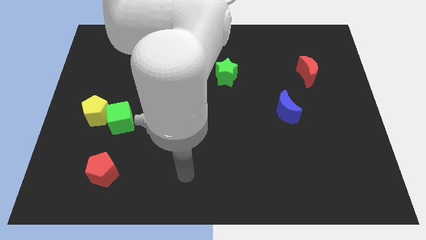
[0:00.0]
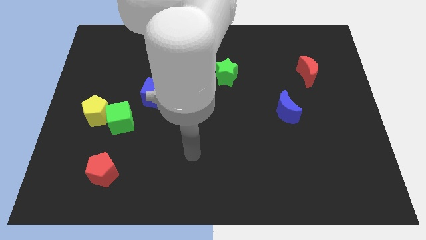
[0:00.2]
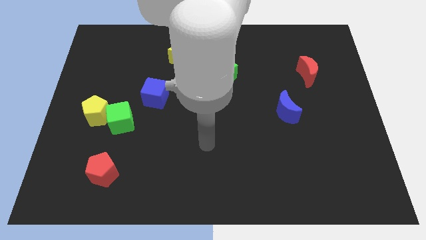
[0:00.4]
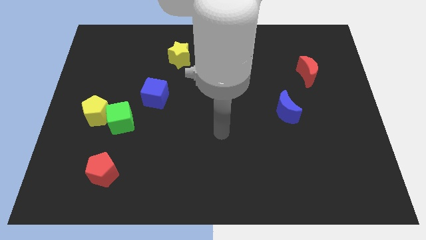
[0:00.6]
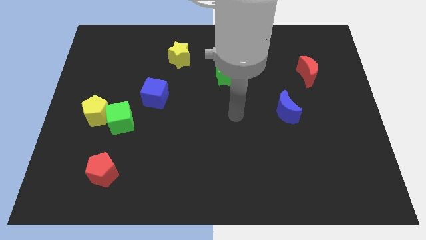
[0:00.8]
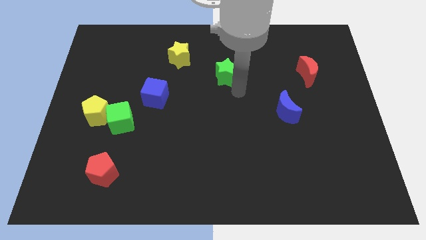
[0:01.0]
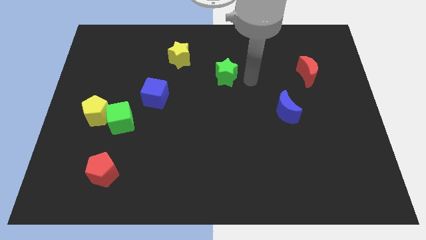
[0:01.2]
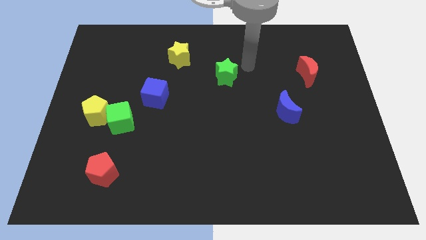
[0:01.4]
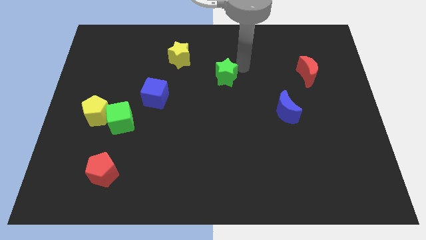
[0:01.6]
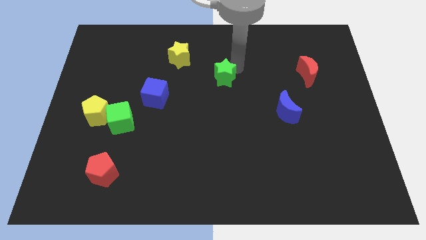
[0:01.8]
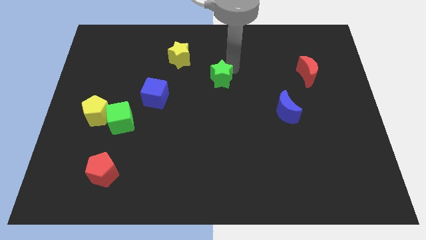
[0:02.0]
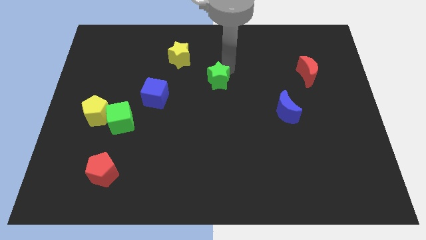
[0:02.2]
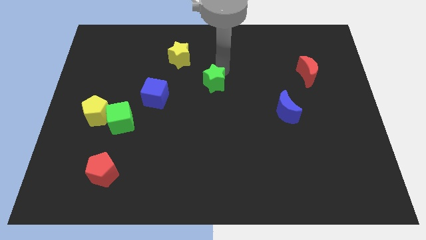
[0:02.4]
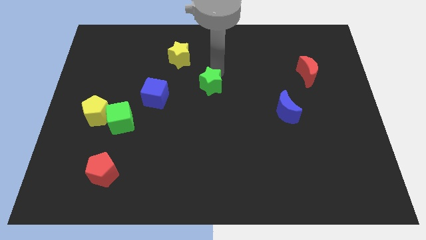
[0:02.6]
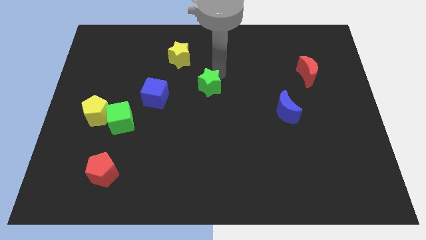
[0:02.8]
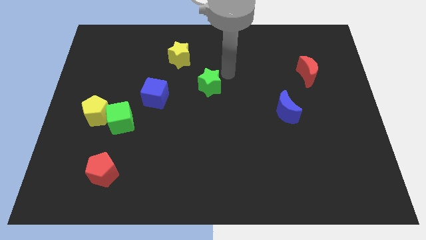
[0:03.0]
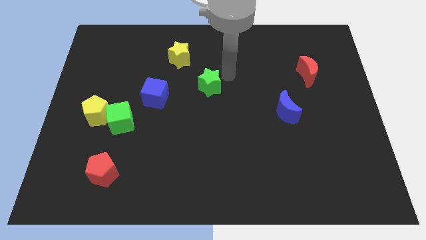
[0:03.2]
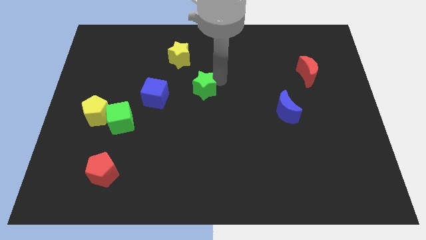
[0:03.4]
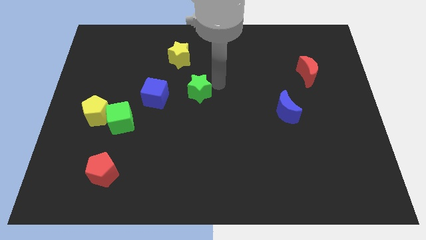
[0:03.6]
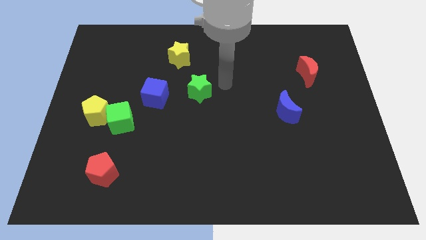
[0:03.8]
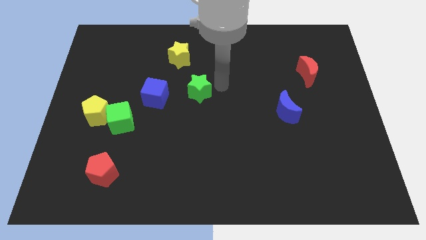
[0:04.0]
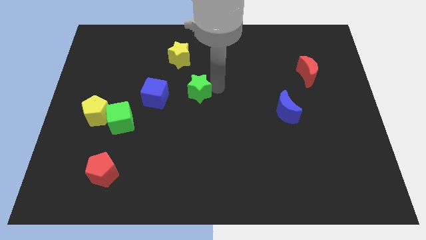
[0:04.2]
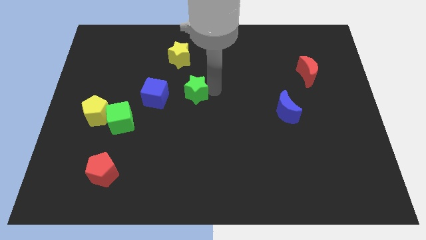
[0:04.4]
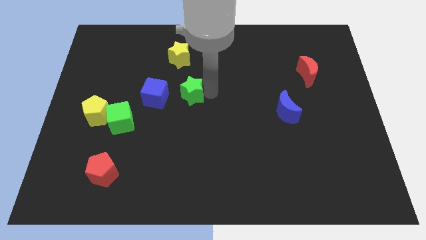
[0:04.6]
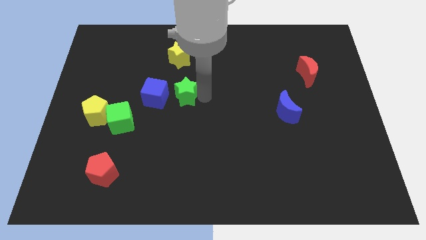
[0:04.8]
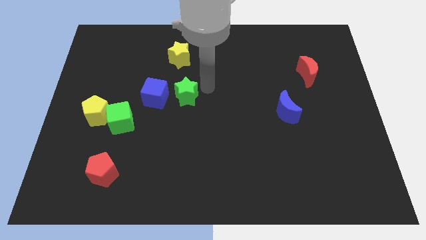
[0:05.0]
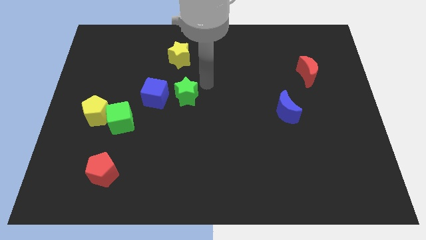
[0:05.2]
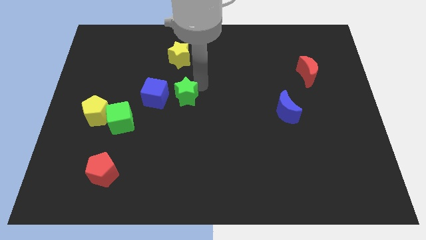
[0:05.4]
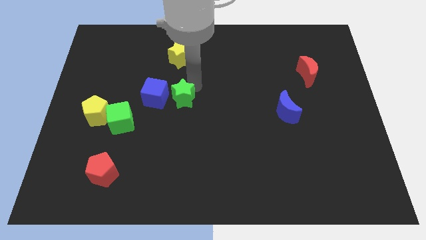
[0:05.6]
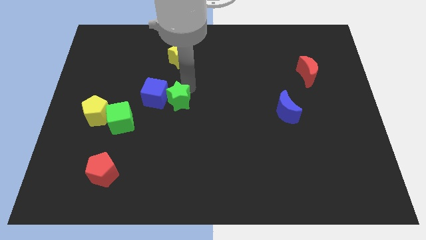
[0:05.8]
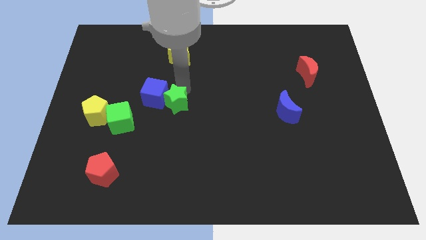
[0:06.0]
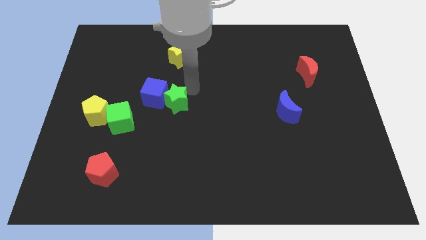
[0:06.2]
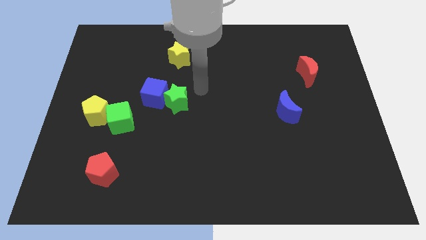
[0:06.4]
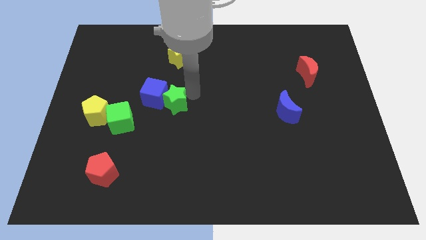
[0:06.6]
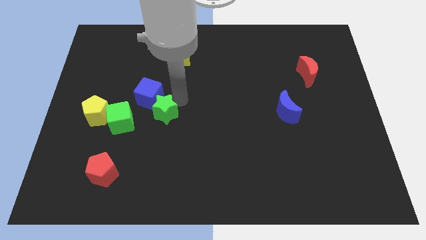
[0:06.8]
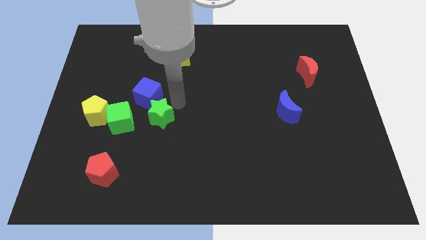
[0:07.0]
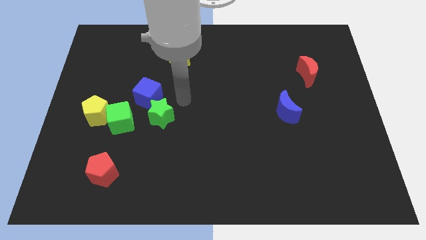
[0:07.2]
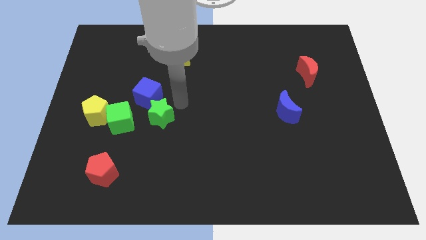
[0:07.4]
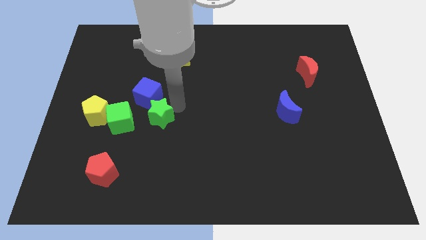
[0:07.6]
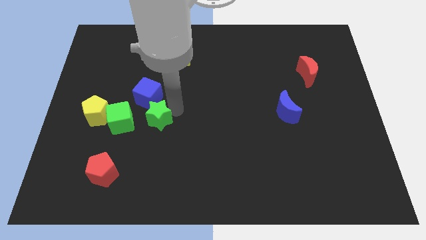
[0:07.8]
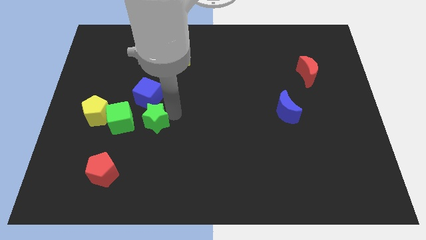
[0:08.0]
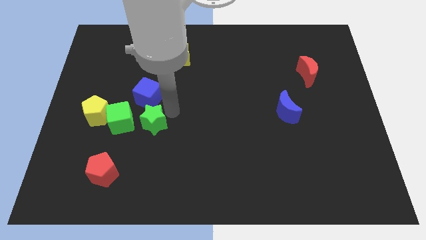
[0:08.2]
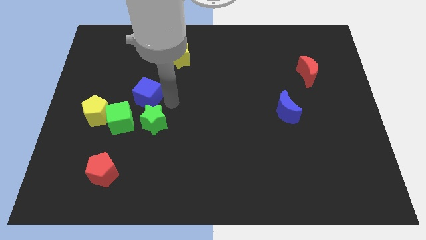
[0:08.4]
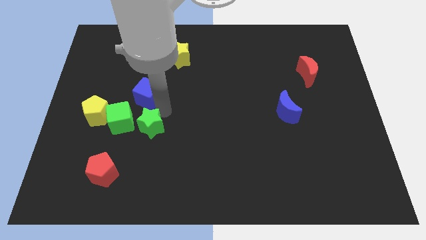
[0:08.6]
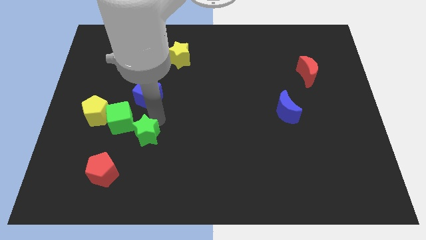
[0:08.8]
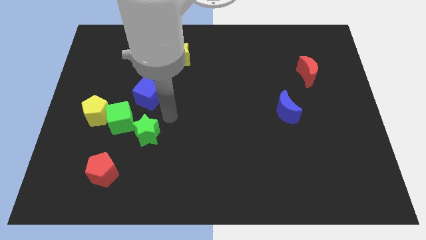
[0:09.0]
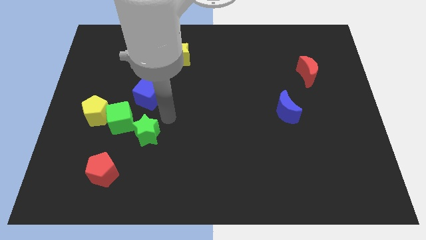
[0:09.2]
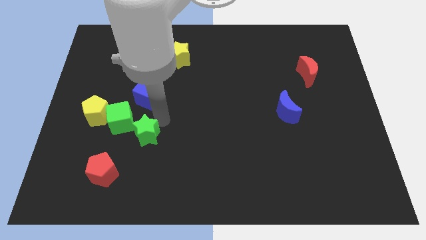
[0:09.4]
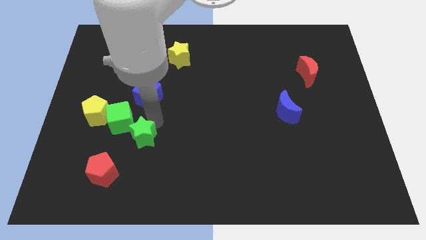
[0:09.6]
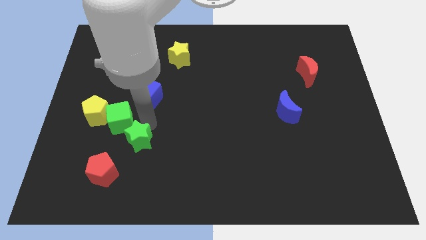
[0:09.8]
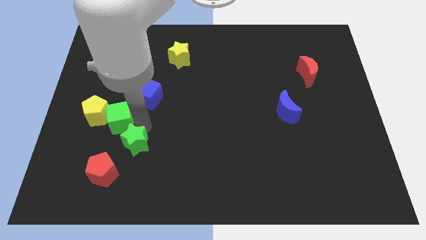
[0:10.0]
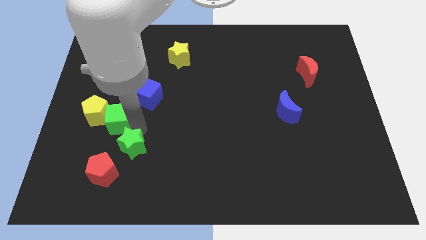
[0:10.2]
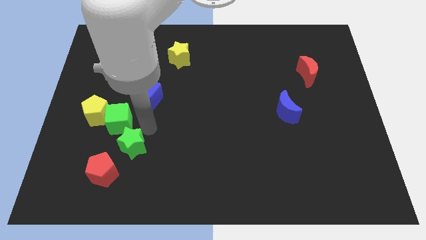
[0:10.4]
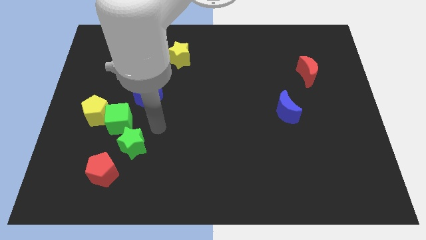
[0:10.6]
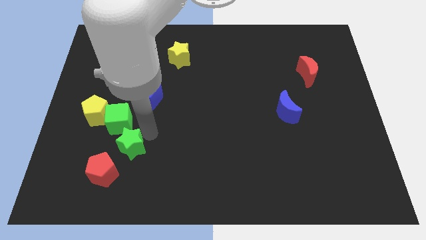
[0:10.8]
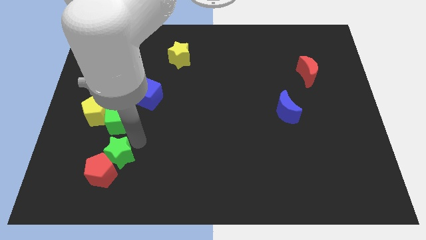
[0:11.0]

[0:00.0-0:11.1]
move the green star towards the red pentagon
